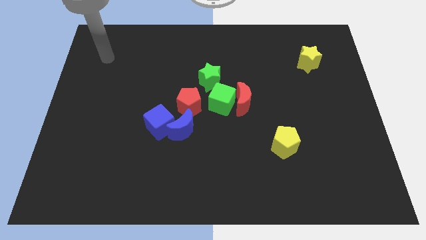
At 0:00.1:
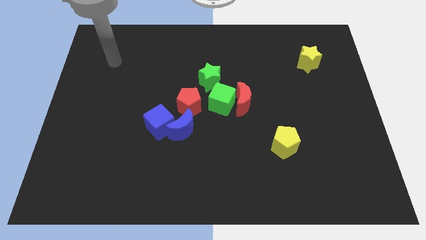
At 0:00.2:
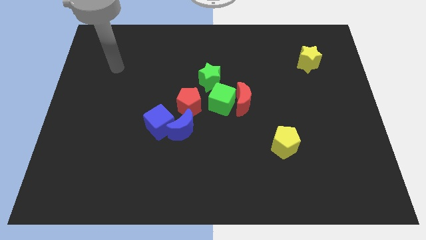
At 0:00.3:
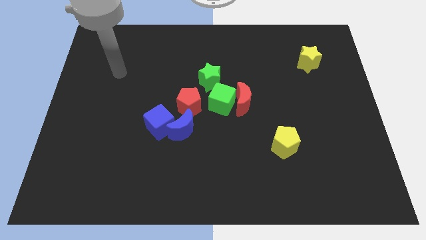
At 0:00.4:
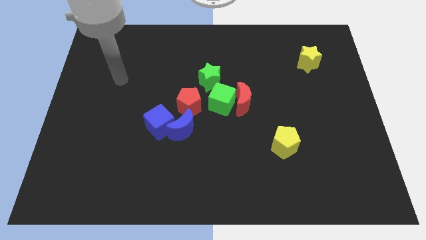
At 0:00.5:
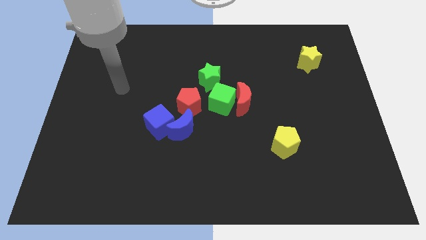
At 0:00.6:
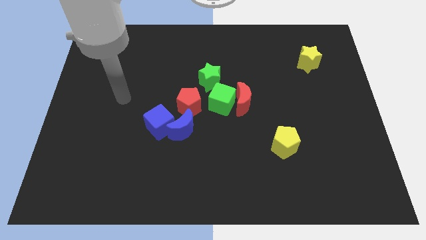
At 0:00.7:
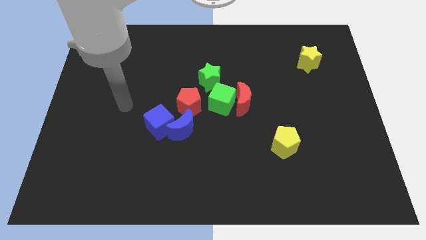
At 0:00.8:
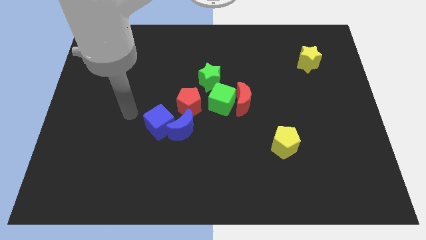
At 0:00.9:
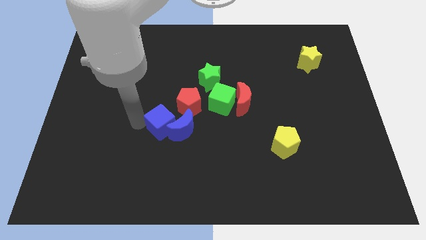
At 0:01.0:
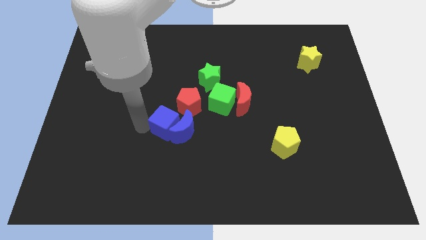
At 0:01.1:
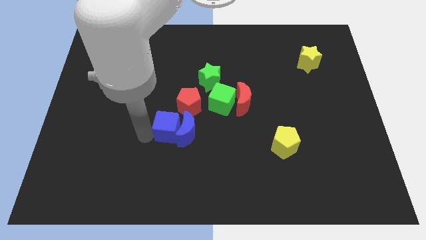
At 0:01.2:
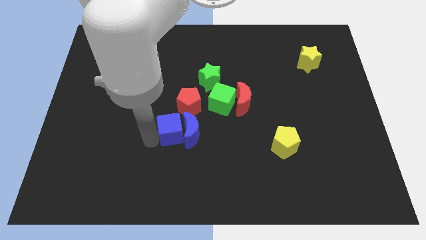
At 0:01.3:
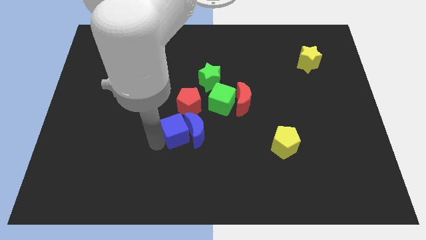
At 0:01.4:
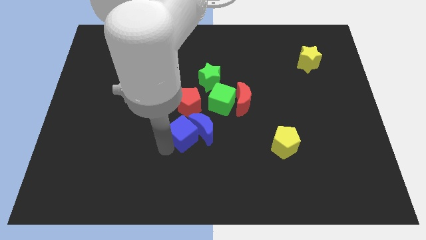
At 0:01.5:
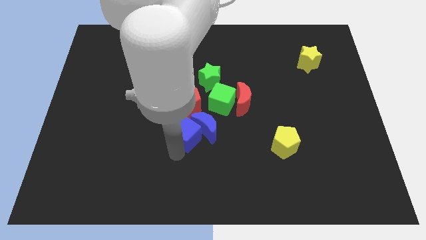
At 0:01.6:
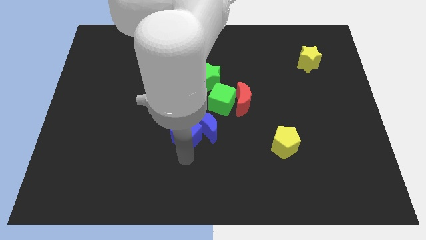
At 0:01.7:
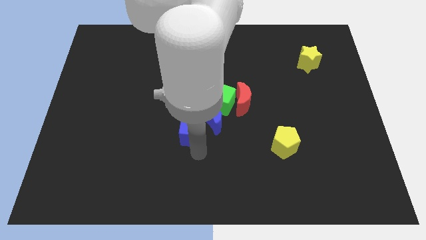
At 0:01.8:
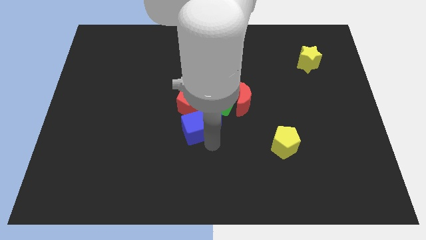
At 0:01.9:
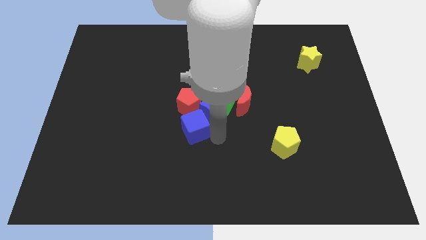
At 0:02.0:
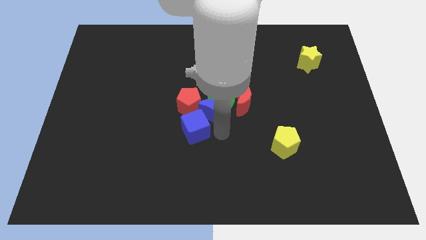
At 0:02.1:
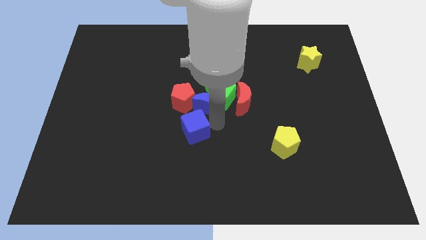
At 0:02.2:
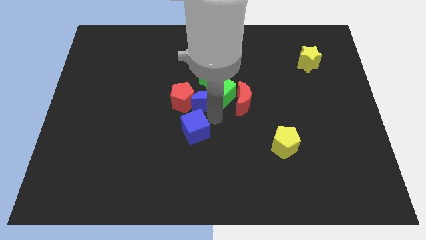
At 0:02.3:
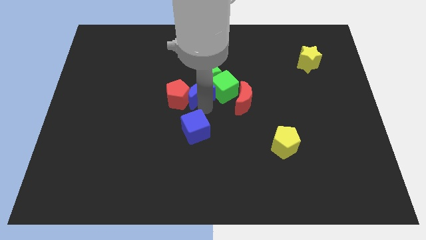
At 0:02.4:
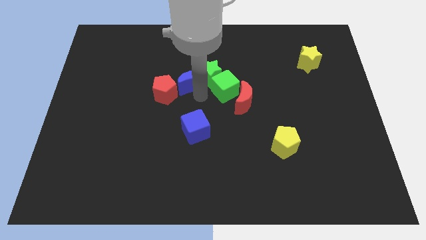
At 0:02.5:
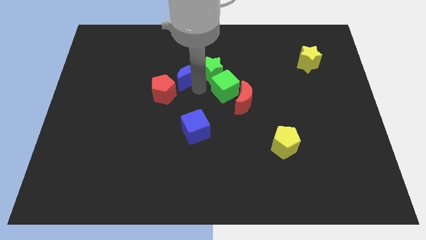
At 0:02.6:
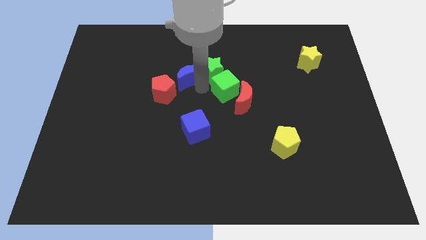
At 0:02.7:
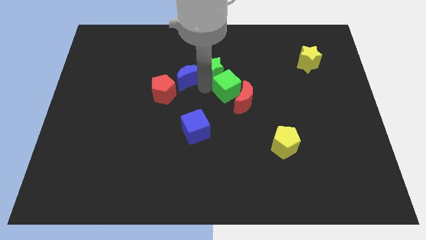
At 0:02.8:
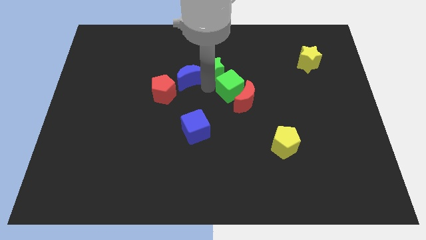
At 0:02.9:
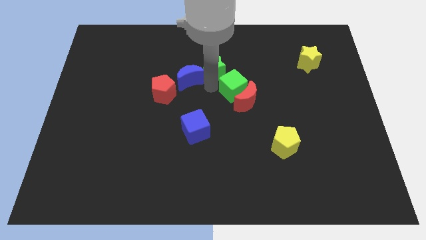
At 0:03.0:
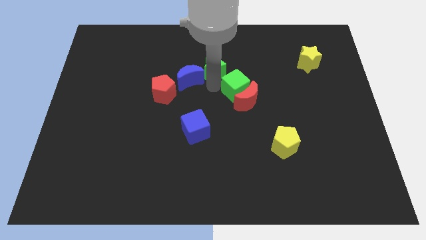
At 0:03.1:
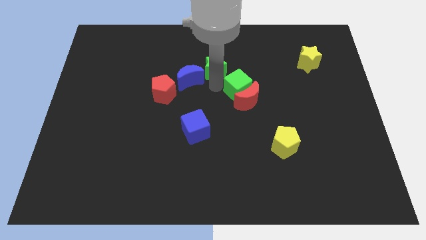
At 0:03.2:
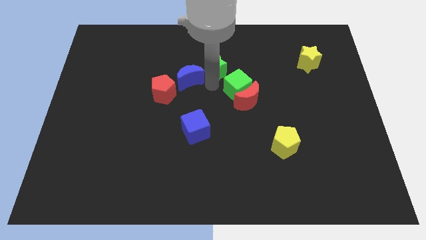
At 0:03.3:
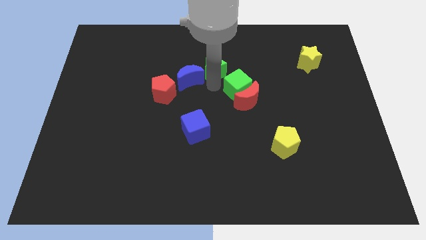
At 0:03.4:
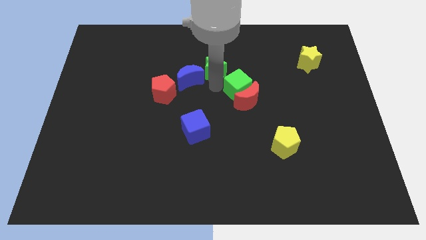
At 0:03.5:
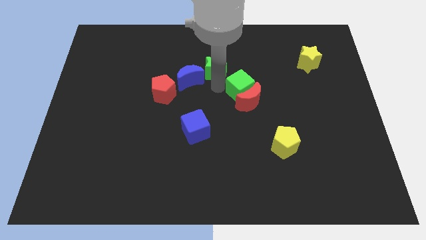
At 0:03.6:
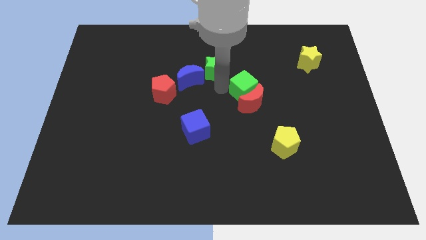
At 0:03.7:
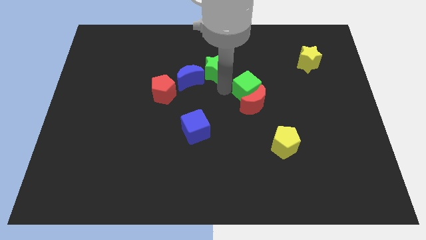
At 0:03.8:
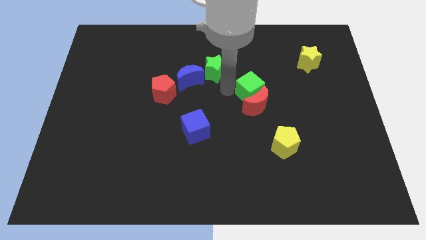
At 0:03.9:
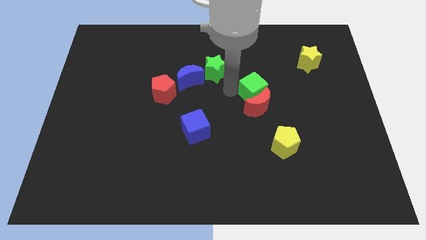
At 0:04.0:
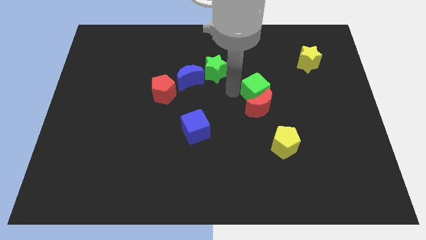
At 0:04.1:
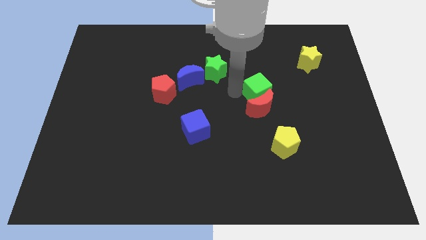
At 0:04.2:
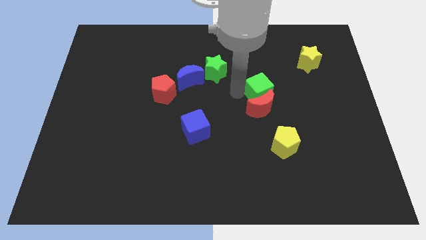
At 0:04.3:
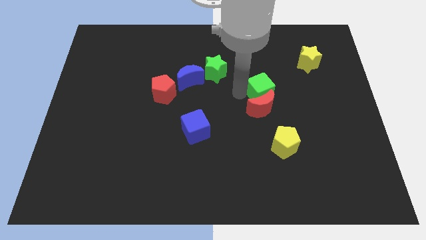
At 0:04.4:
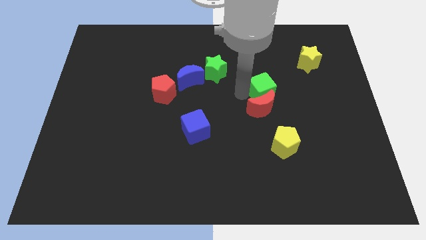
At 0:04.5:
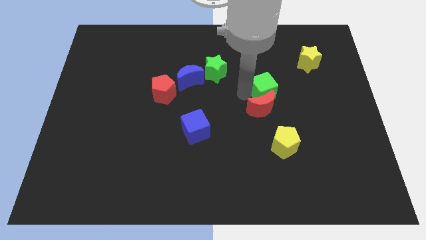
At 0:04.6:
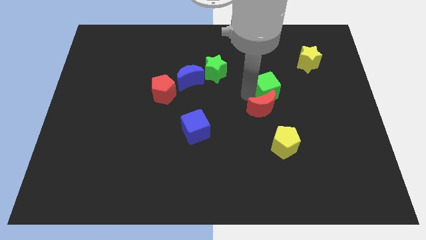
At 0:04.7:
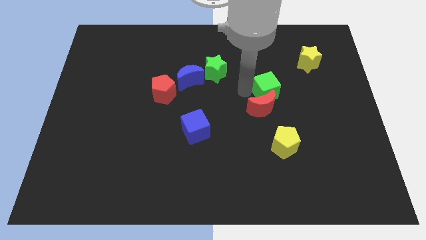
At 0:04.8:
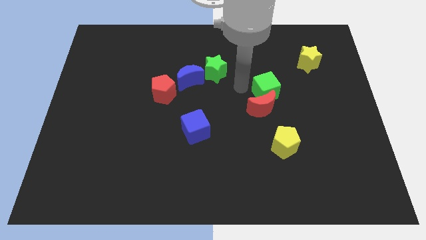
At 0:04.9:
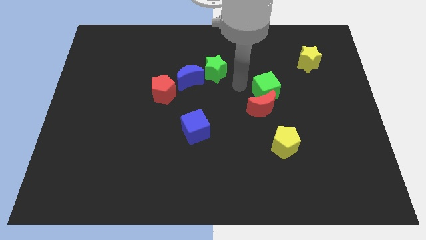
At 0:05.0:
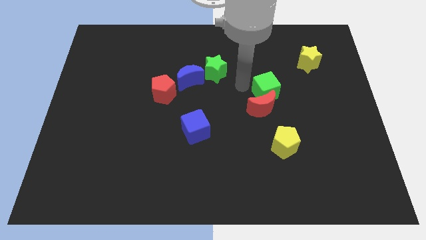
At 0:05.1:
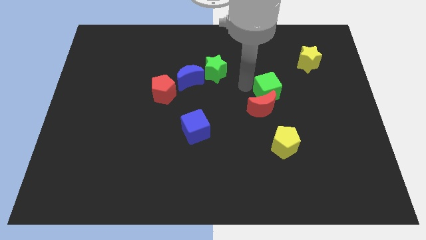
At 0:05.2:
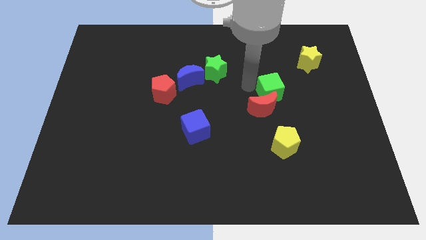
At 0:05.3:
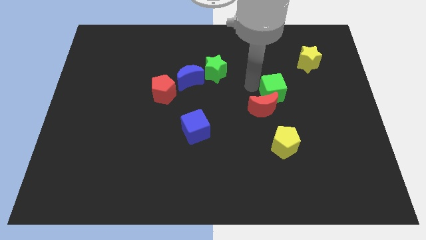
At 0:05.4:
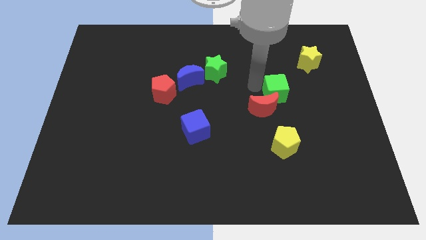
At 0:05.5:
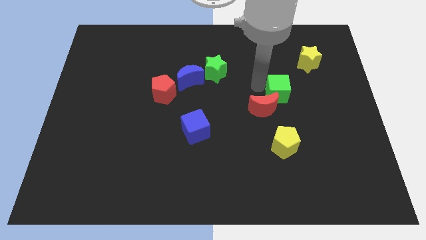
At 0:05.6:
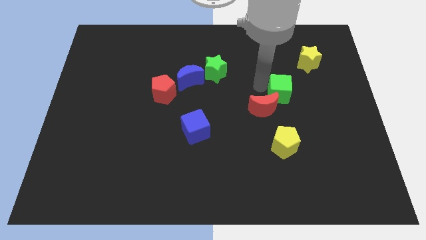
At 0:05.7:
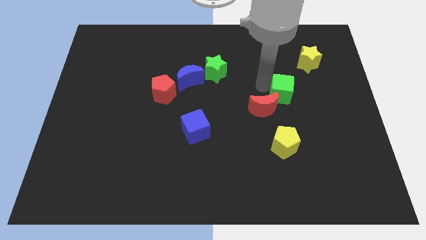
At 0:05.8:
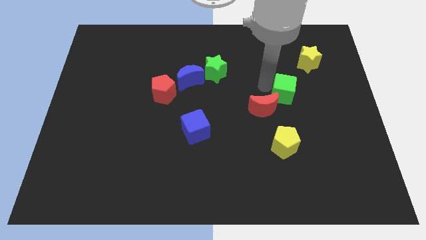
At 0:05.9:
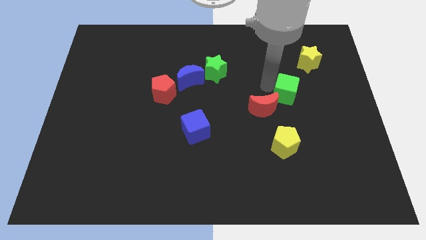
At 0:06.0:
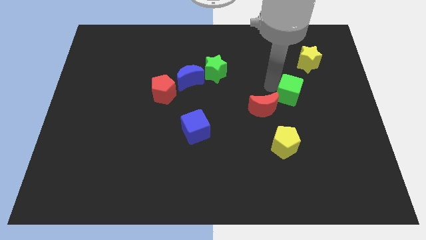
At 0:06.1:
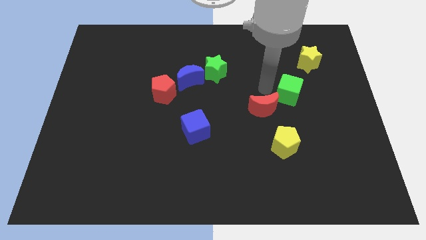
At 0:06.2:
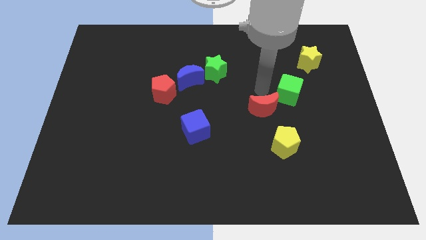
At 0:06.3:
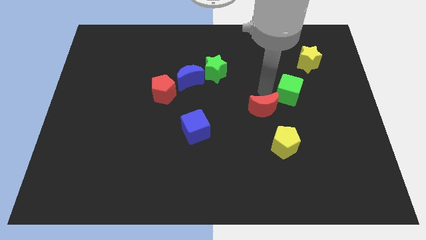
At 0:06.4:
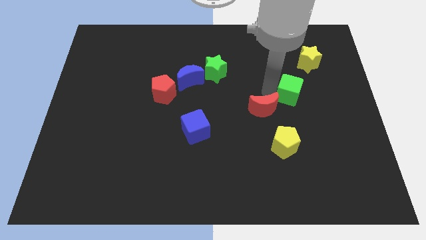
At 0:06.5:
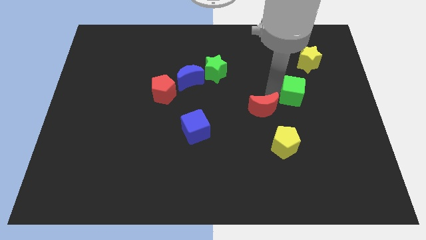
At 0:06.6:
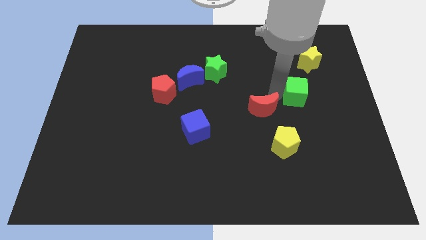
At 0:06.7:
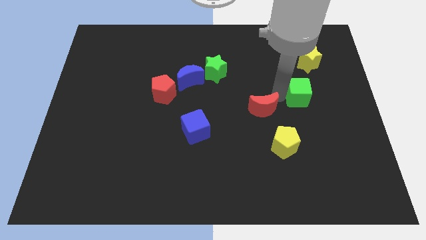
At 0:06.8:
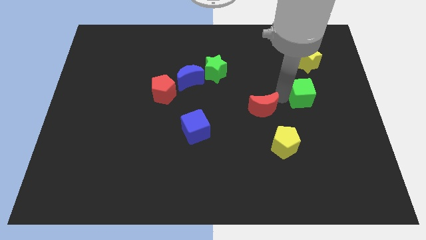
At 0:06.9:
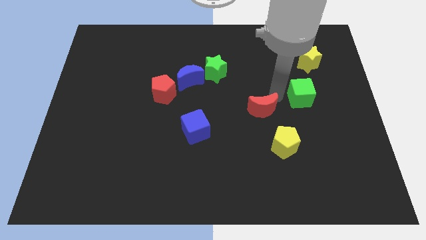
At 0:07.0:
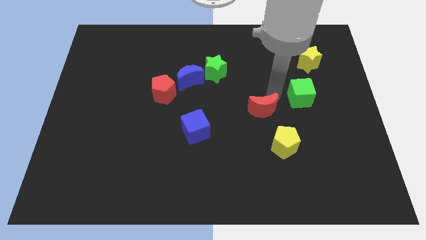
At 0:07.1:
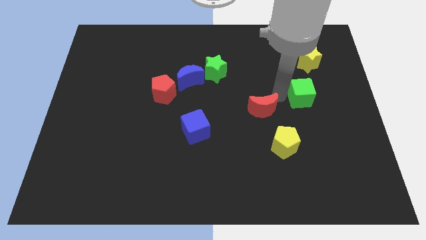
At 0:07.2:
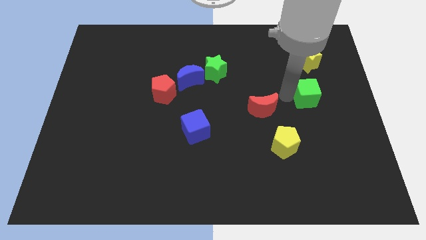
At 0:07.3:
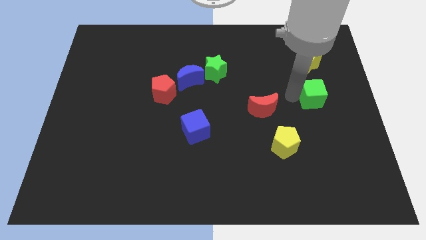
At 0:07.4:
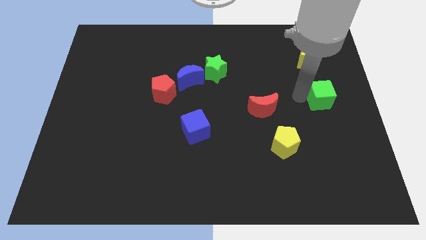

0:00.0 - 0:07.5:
push the green cube to the right side of the board
